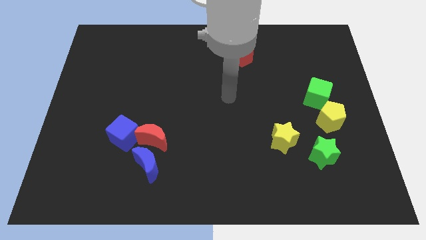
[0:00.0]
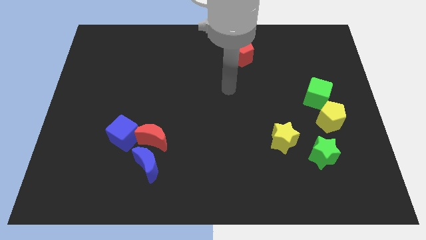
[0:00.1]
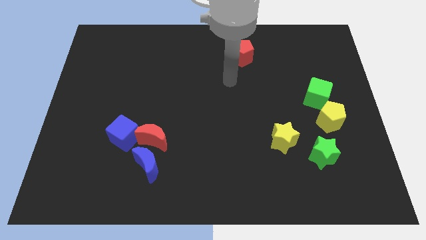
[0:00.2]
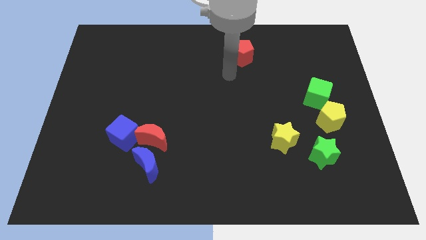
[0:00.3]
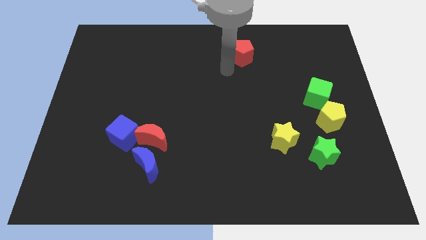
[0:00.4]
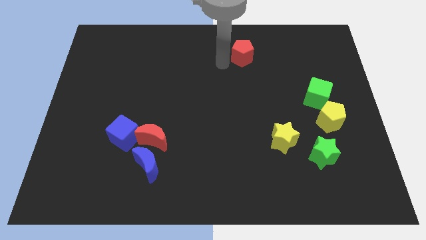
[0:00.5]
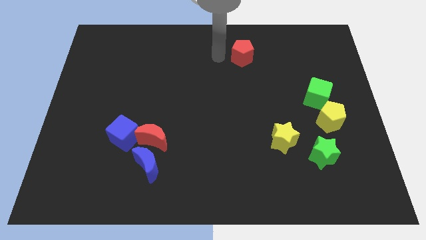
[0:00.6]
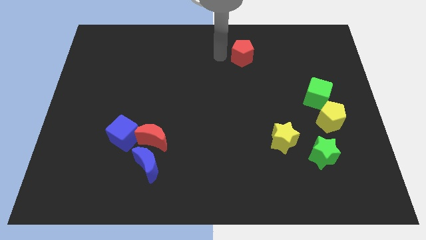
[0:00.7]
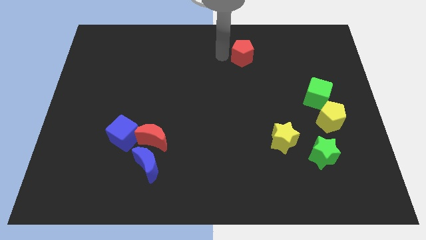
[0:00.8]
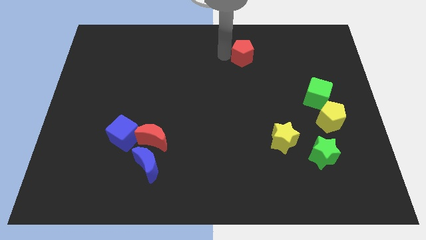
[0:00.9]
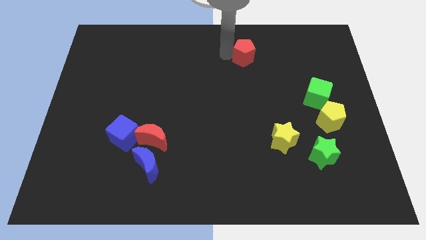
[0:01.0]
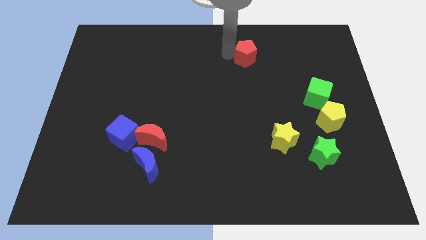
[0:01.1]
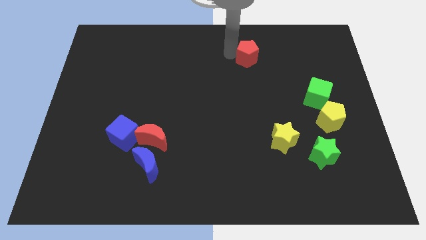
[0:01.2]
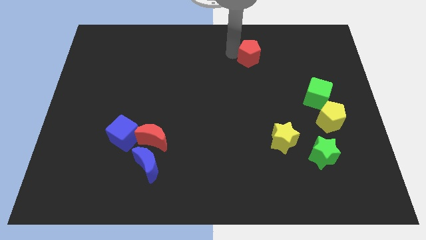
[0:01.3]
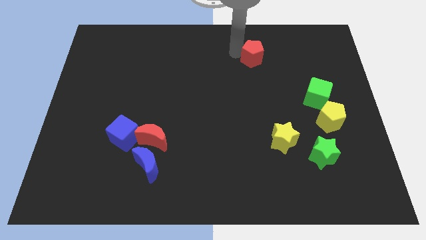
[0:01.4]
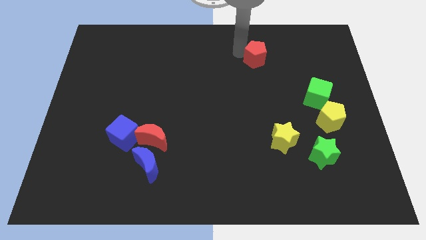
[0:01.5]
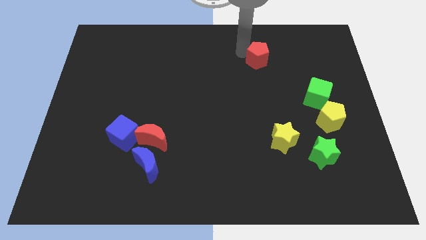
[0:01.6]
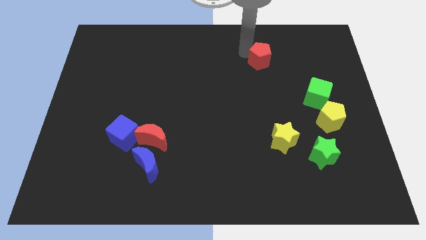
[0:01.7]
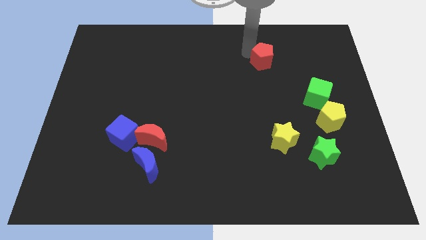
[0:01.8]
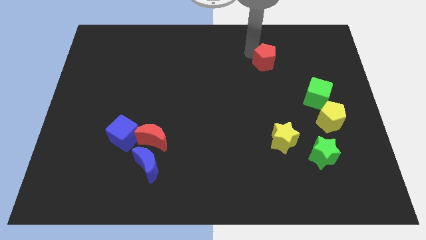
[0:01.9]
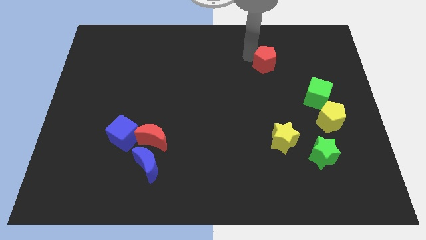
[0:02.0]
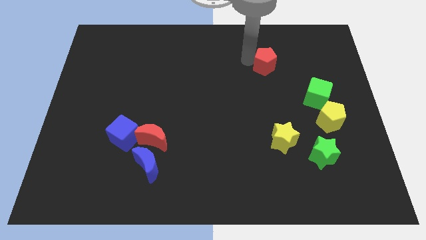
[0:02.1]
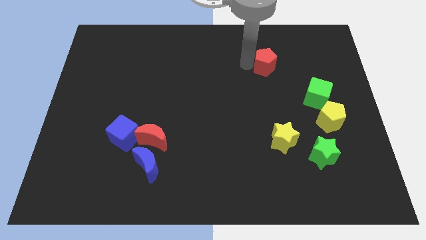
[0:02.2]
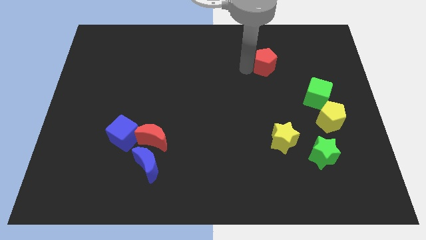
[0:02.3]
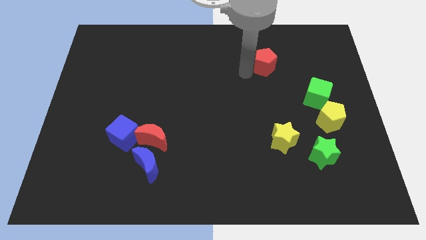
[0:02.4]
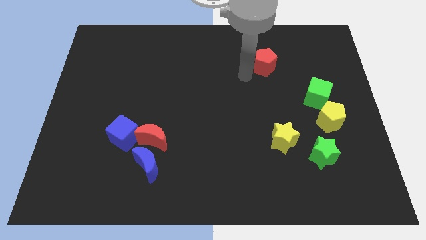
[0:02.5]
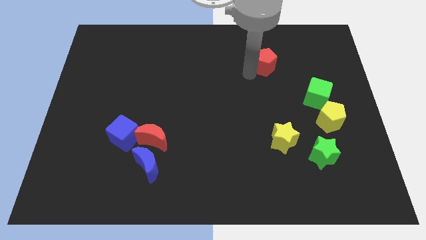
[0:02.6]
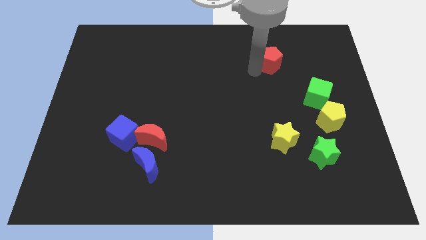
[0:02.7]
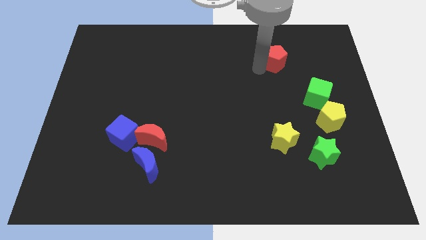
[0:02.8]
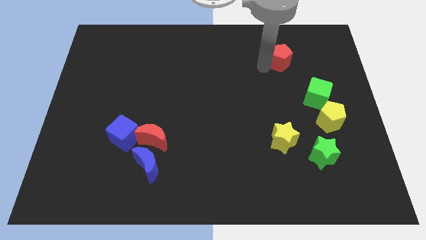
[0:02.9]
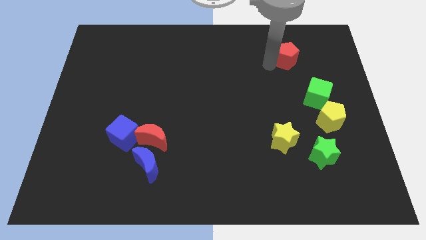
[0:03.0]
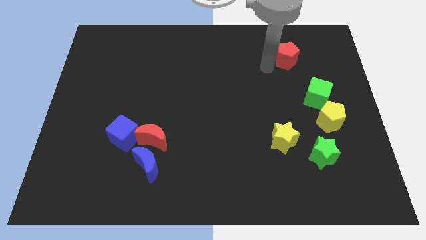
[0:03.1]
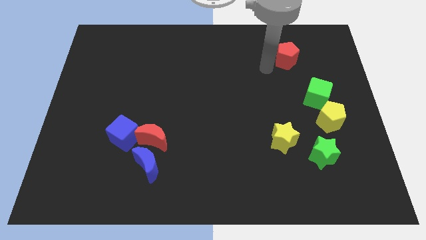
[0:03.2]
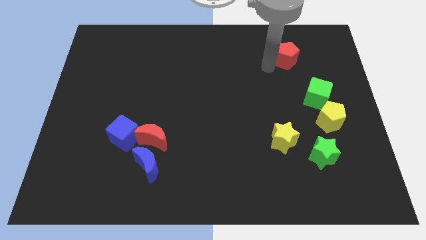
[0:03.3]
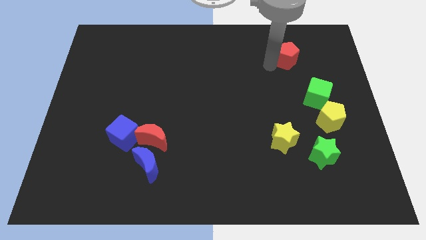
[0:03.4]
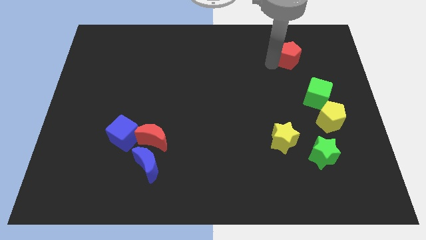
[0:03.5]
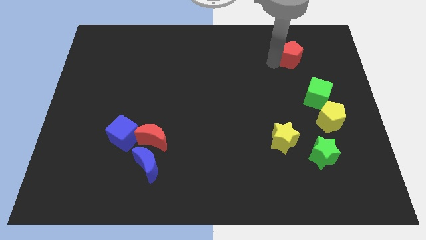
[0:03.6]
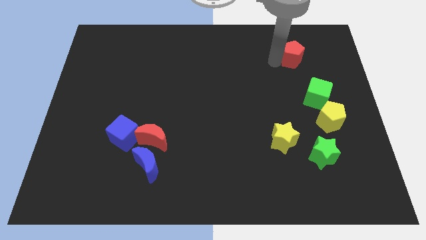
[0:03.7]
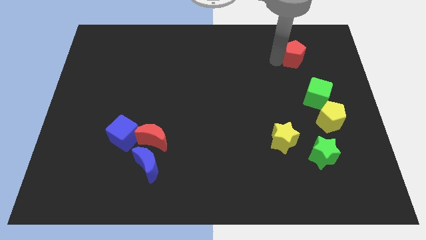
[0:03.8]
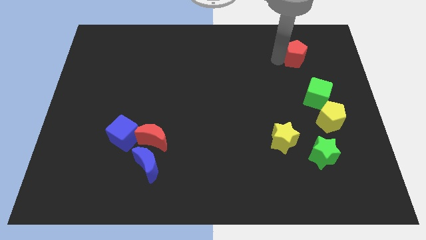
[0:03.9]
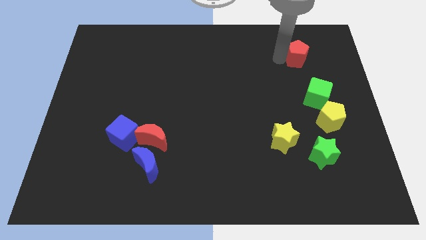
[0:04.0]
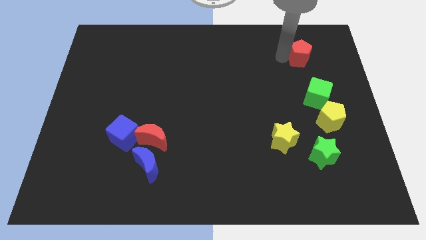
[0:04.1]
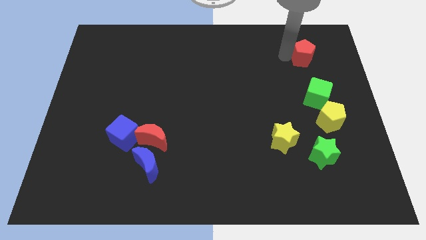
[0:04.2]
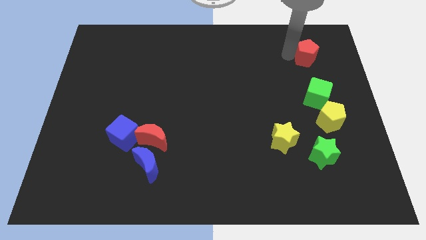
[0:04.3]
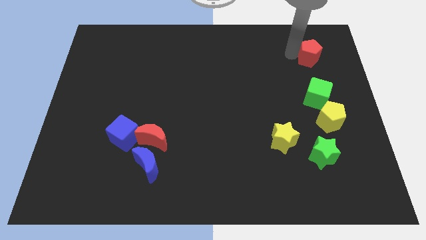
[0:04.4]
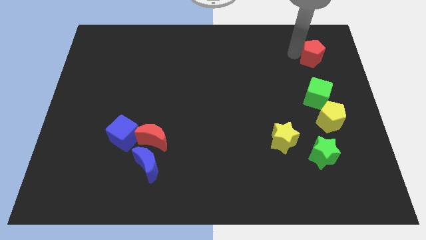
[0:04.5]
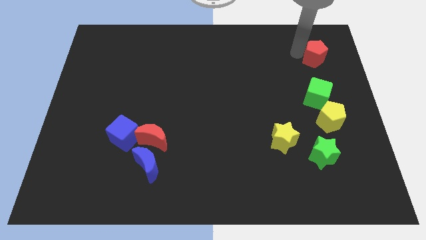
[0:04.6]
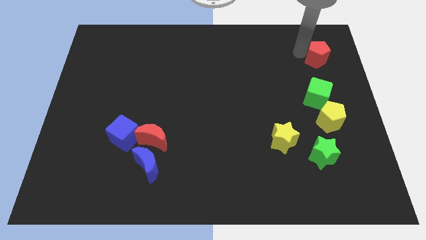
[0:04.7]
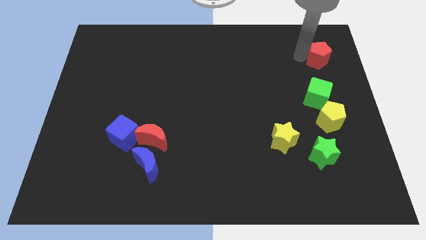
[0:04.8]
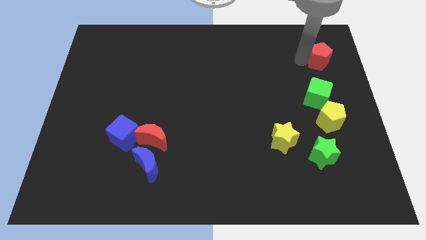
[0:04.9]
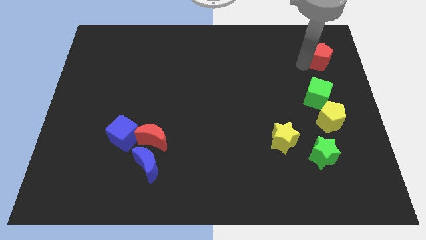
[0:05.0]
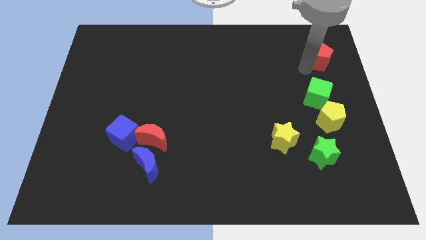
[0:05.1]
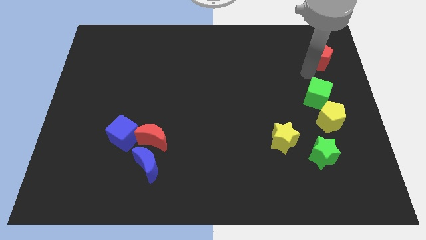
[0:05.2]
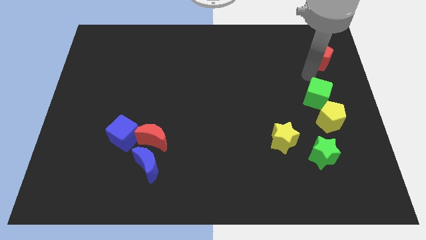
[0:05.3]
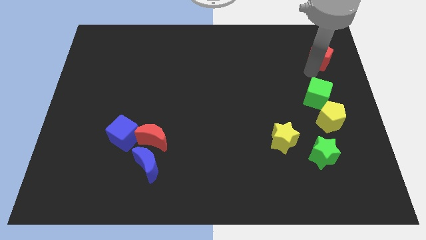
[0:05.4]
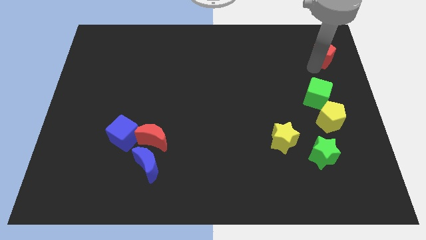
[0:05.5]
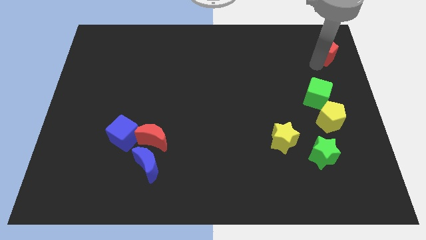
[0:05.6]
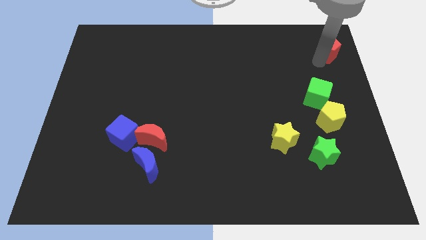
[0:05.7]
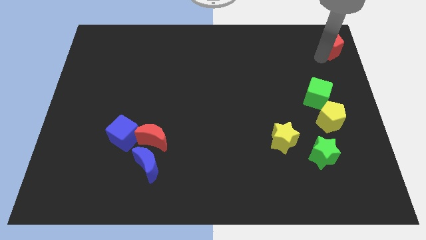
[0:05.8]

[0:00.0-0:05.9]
move the red pentagon to the top right corner

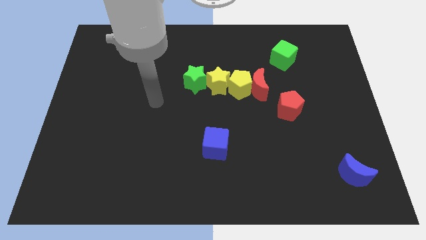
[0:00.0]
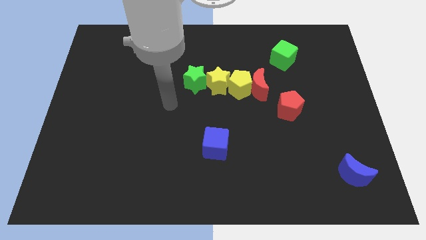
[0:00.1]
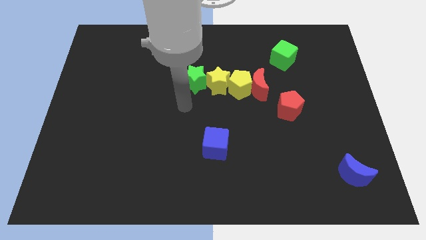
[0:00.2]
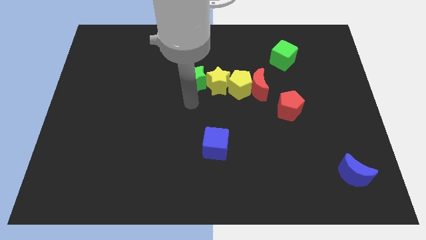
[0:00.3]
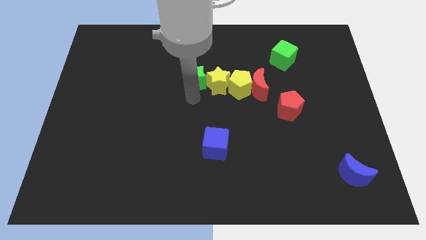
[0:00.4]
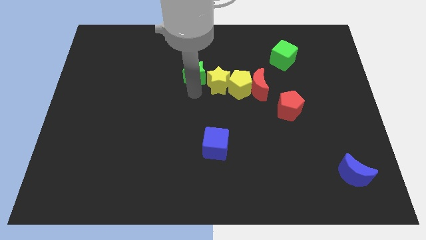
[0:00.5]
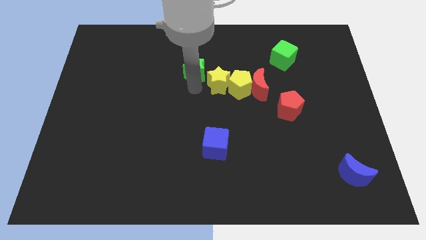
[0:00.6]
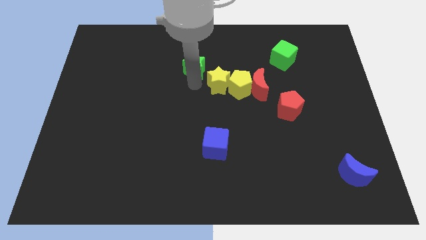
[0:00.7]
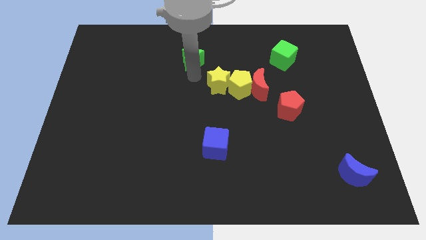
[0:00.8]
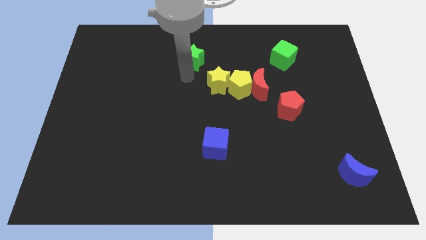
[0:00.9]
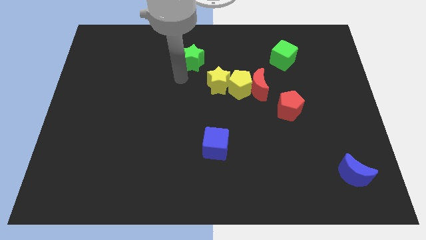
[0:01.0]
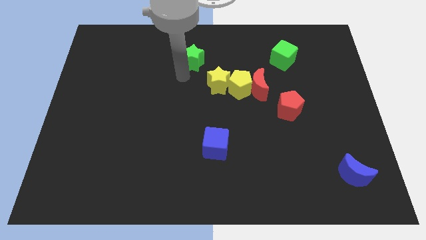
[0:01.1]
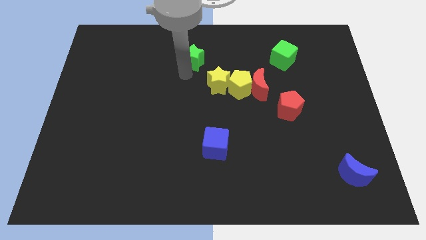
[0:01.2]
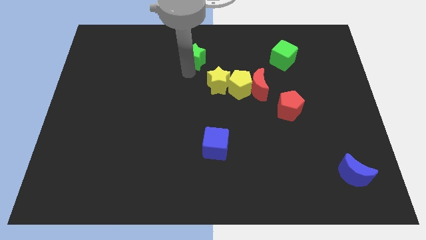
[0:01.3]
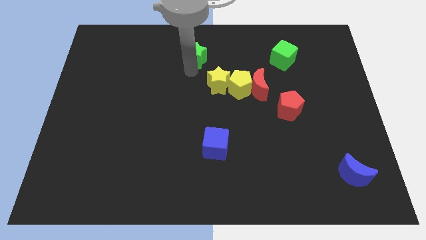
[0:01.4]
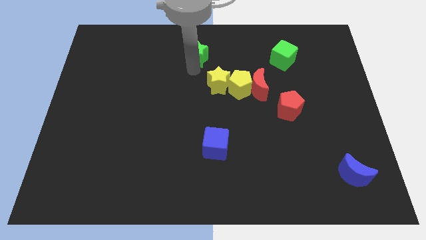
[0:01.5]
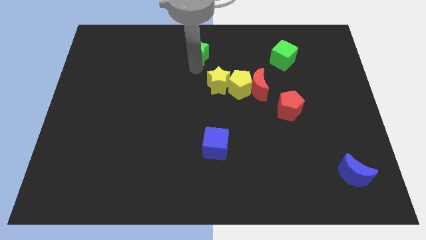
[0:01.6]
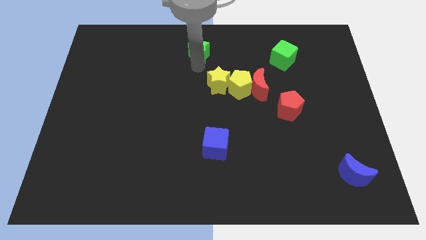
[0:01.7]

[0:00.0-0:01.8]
move the green star to the top side
